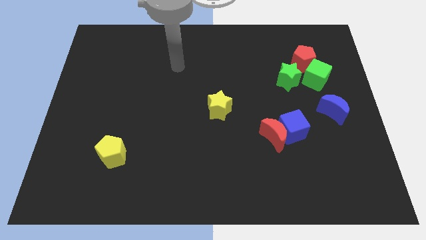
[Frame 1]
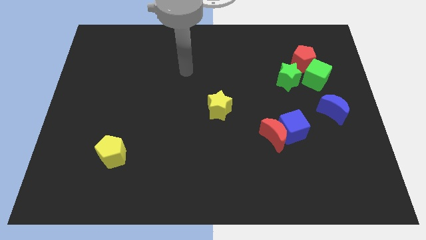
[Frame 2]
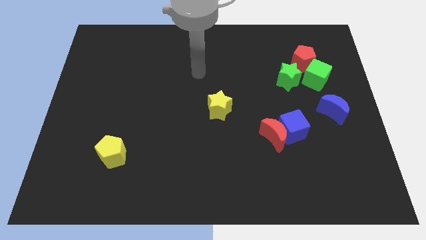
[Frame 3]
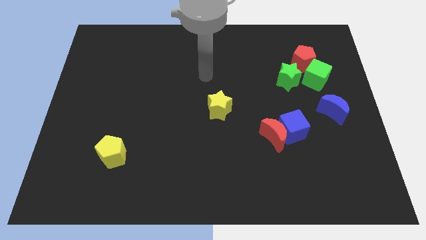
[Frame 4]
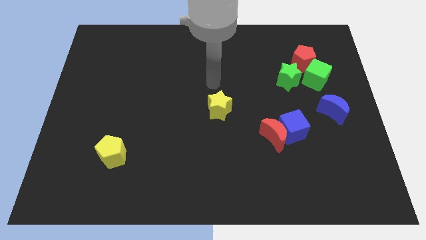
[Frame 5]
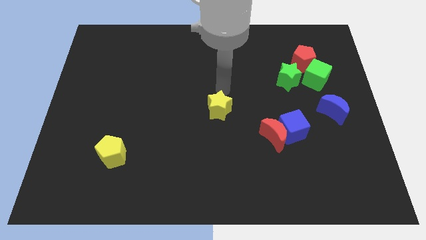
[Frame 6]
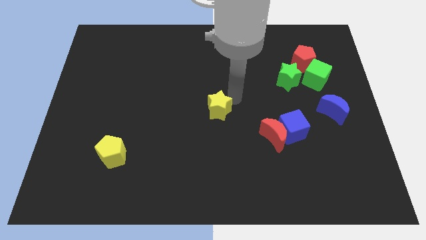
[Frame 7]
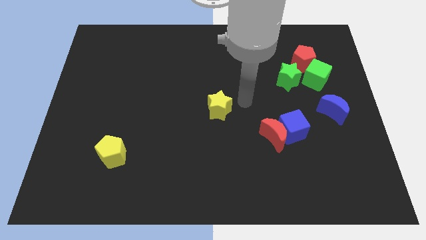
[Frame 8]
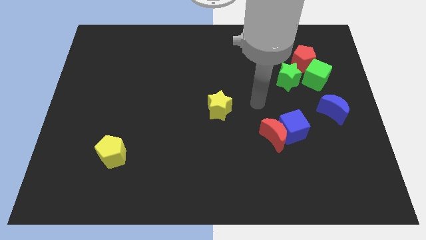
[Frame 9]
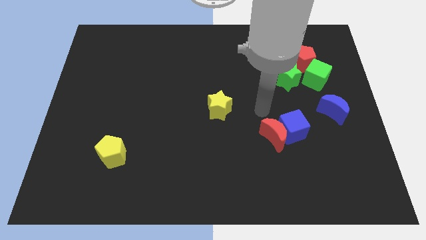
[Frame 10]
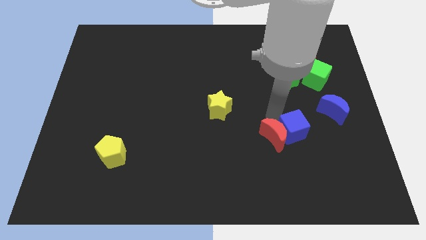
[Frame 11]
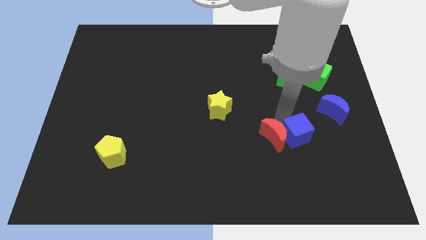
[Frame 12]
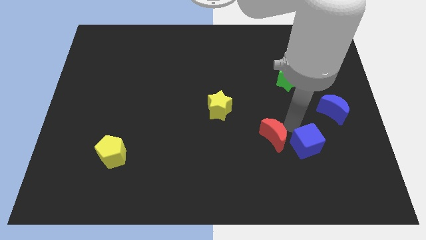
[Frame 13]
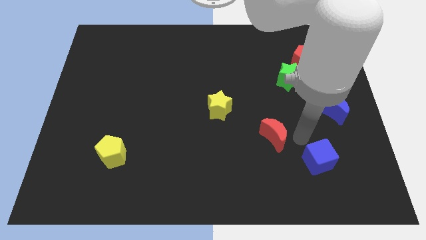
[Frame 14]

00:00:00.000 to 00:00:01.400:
move the red moon away from the blue cube

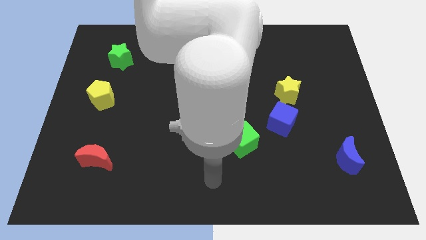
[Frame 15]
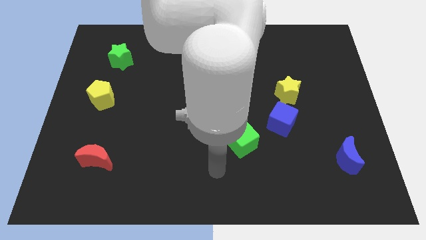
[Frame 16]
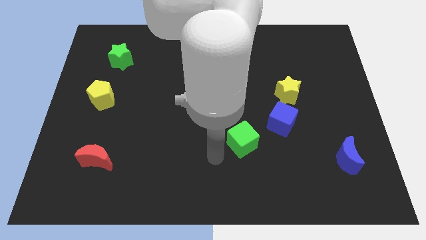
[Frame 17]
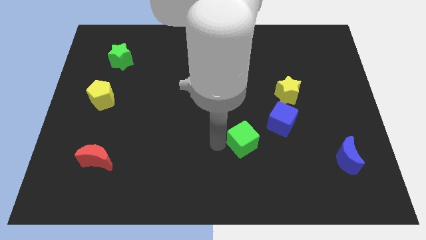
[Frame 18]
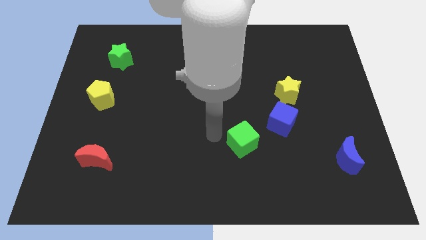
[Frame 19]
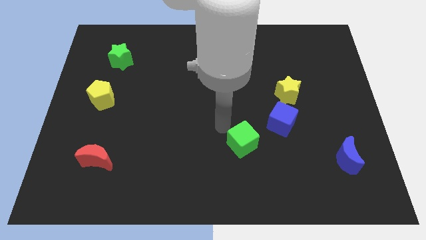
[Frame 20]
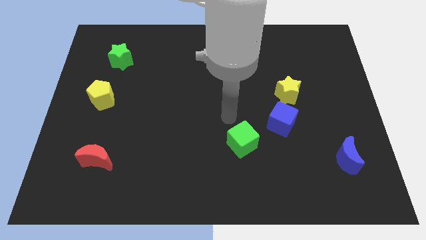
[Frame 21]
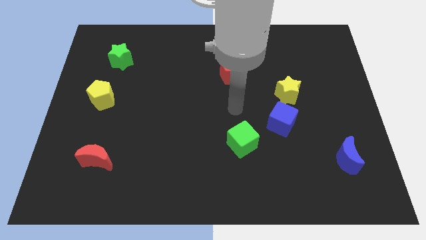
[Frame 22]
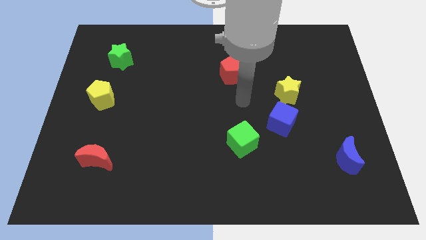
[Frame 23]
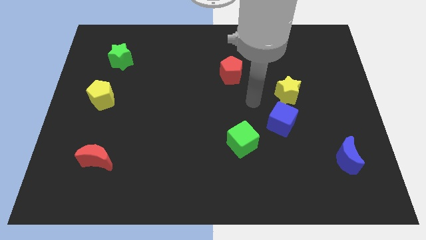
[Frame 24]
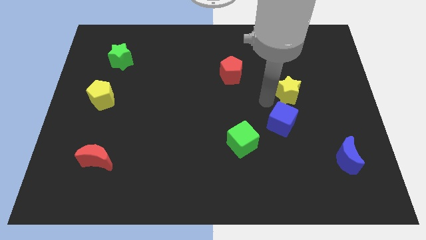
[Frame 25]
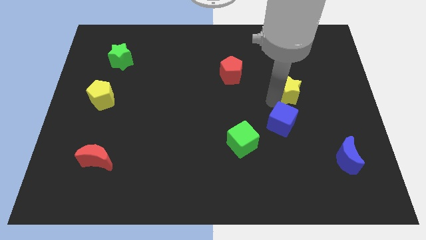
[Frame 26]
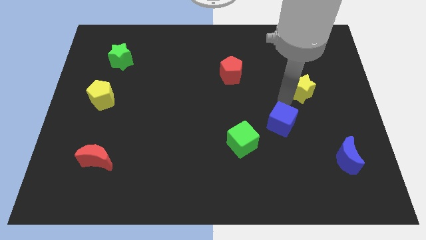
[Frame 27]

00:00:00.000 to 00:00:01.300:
separate the blue cube from the yellow star

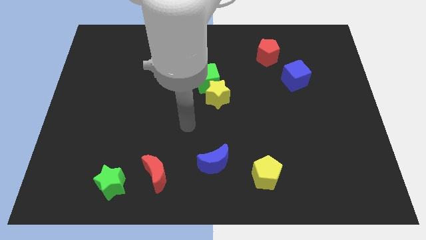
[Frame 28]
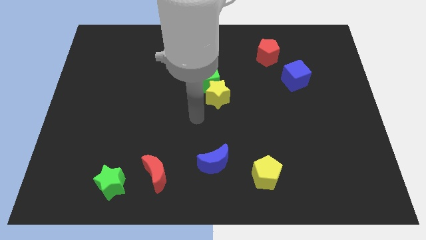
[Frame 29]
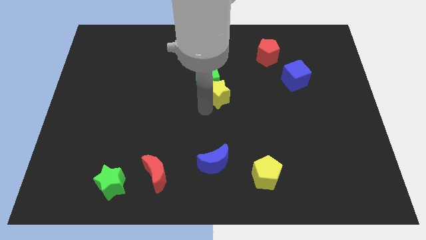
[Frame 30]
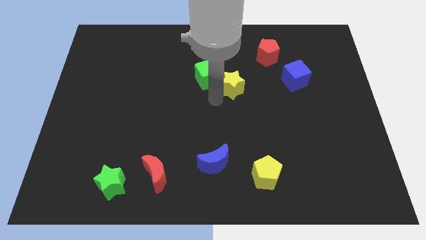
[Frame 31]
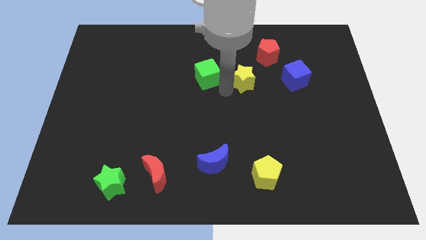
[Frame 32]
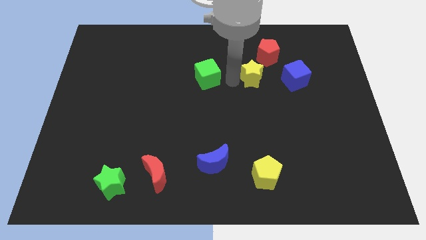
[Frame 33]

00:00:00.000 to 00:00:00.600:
move the green cube away from the yellow star

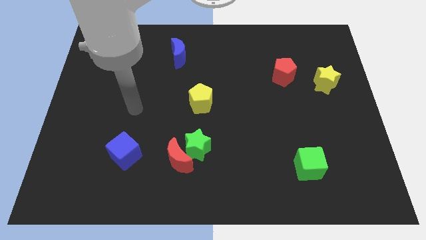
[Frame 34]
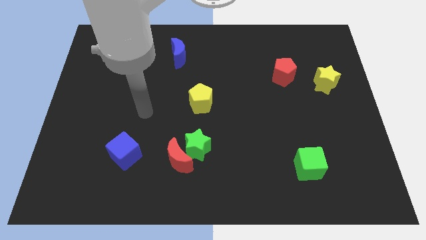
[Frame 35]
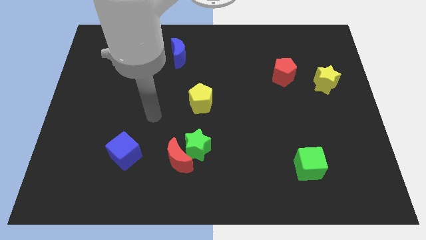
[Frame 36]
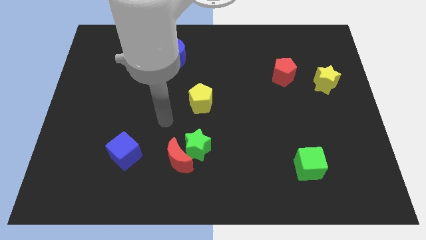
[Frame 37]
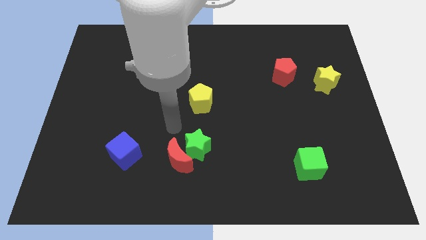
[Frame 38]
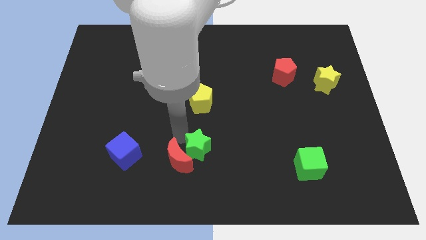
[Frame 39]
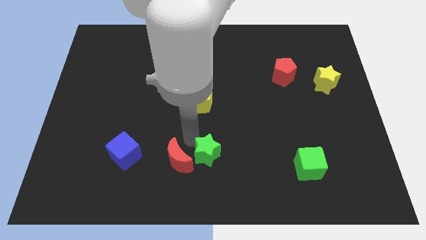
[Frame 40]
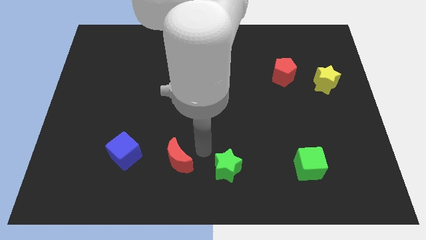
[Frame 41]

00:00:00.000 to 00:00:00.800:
move the red moon away from the green star

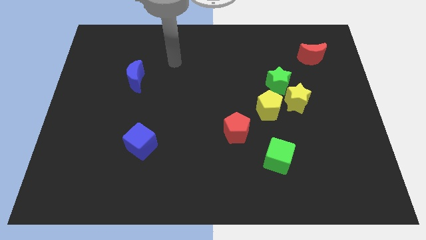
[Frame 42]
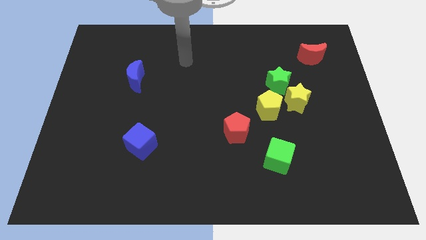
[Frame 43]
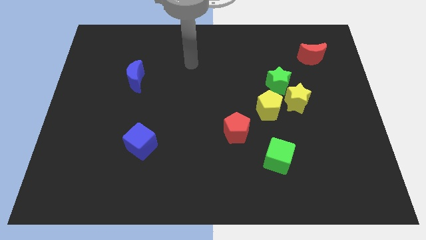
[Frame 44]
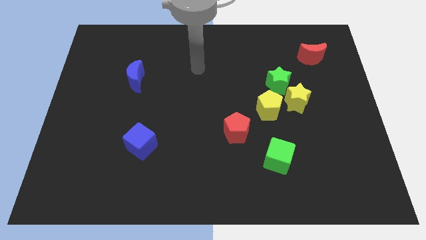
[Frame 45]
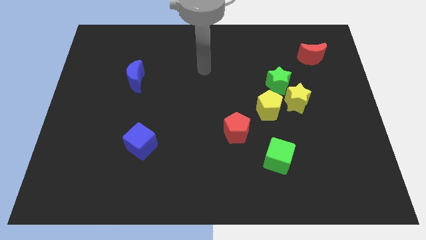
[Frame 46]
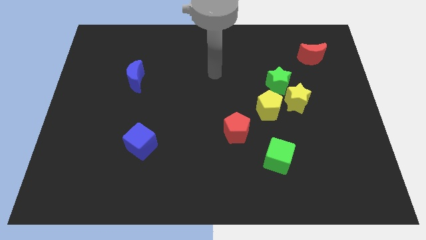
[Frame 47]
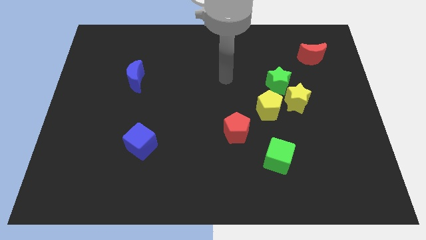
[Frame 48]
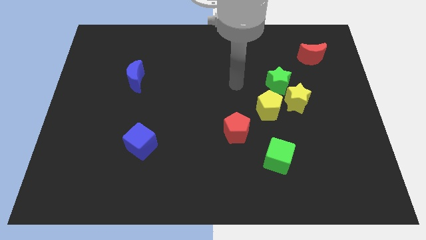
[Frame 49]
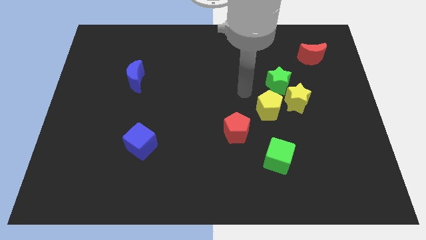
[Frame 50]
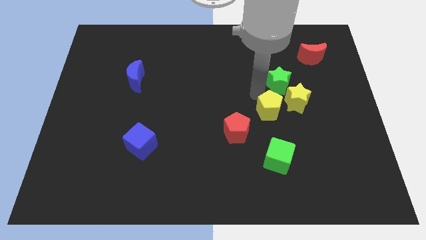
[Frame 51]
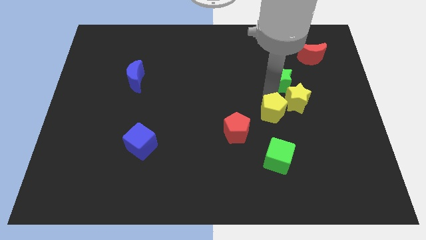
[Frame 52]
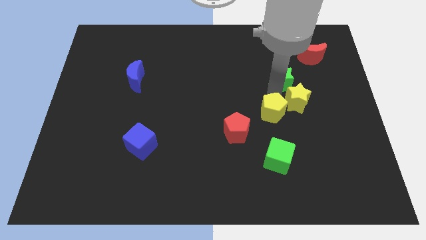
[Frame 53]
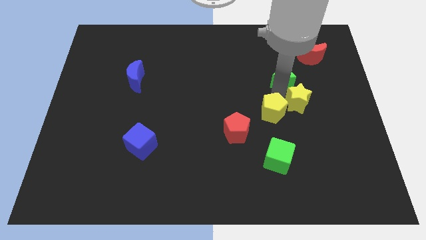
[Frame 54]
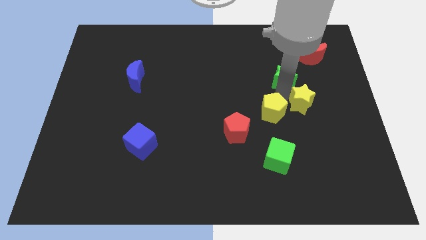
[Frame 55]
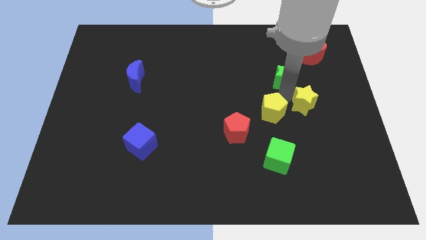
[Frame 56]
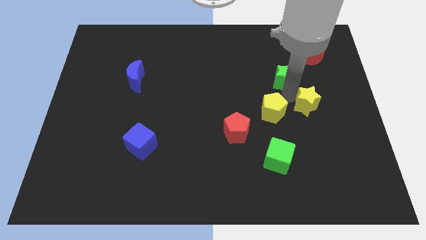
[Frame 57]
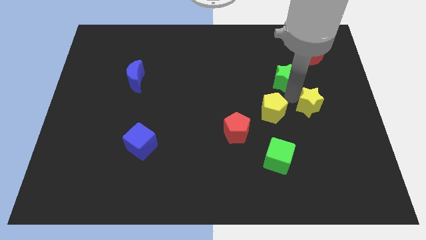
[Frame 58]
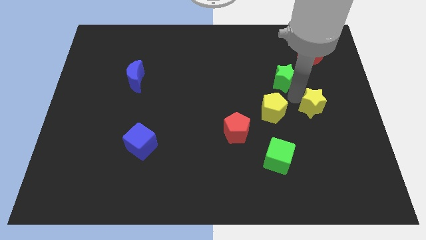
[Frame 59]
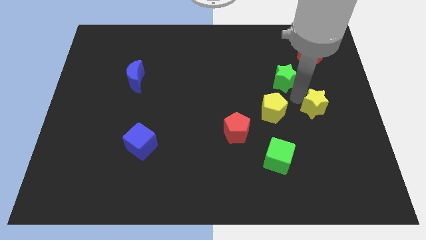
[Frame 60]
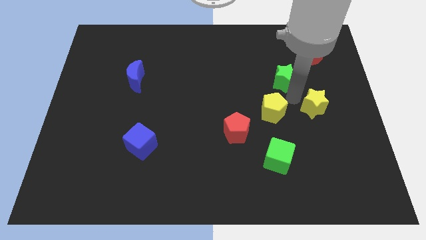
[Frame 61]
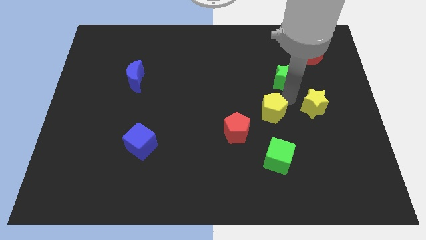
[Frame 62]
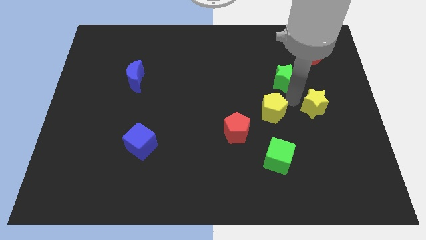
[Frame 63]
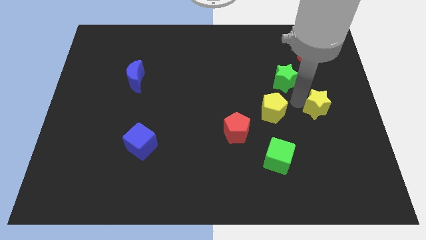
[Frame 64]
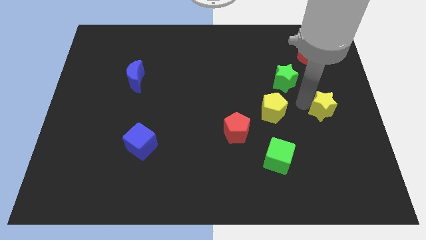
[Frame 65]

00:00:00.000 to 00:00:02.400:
move the yellow star away from the green star and yellow pentagon

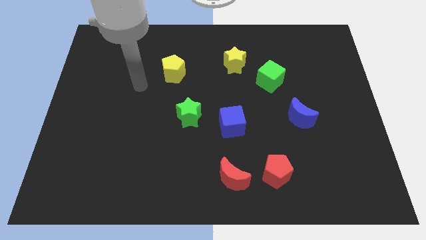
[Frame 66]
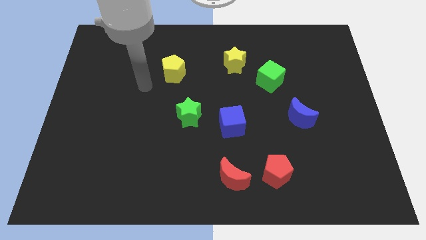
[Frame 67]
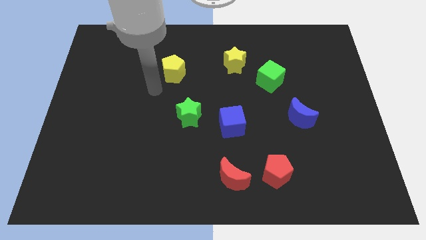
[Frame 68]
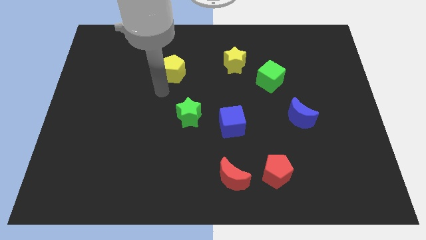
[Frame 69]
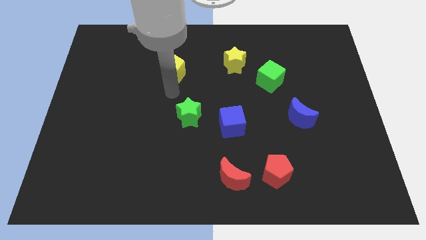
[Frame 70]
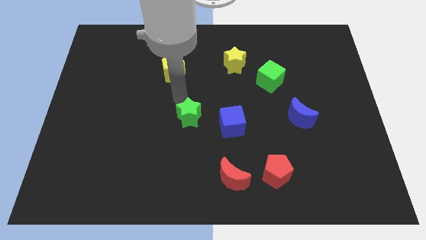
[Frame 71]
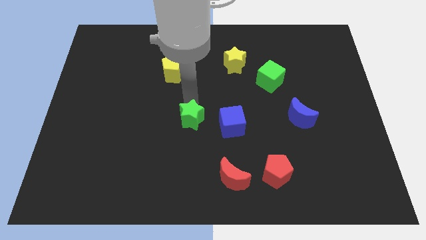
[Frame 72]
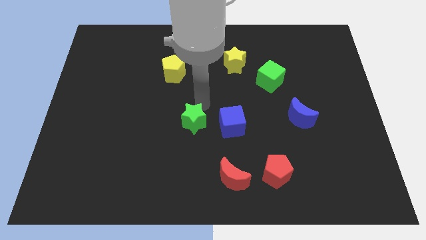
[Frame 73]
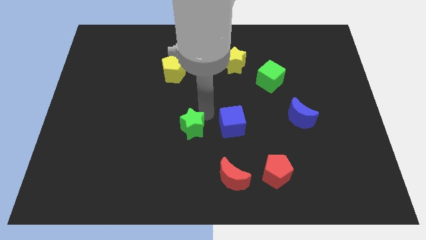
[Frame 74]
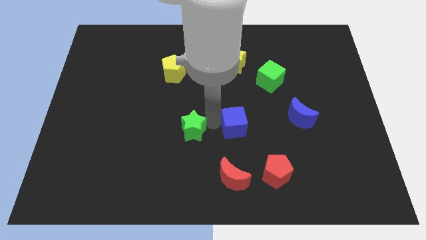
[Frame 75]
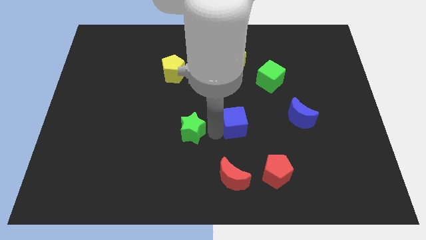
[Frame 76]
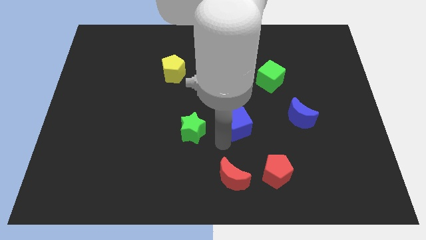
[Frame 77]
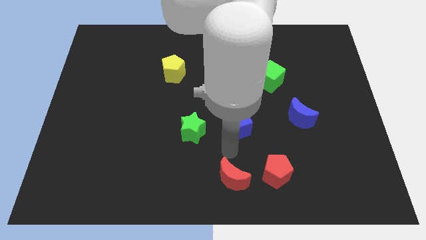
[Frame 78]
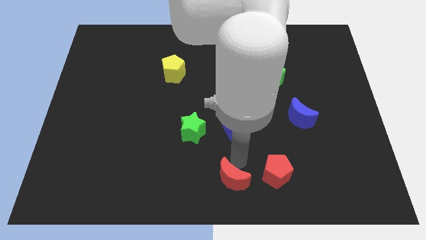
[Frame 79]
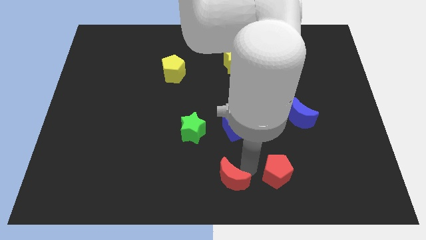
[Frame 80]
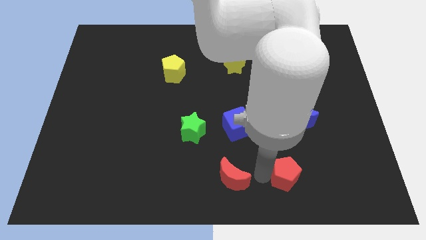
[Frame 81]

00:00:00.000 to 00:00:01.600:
pull the red moon apart from the red pentagon

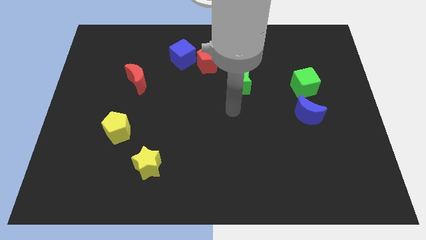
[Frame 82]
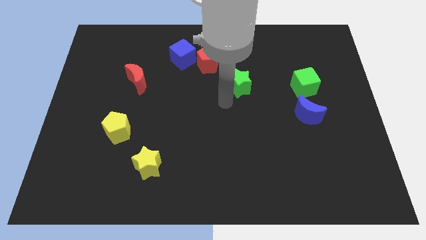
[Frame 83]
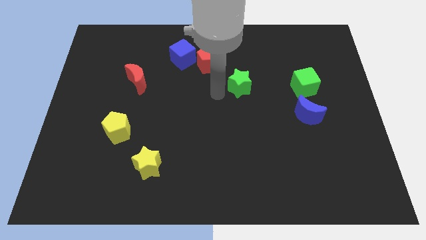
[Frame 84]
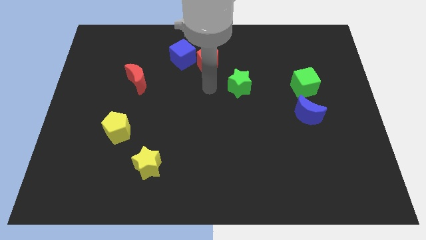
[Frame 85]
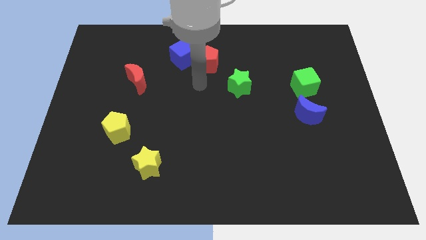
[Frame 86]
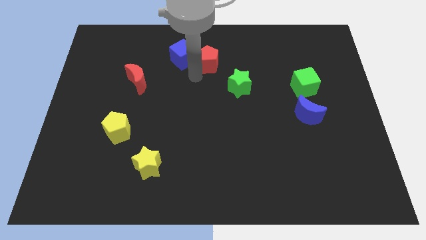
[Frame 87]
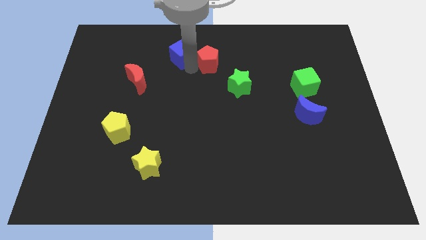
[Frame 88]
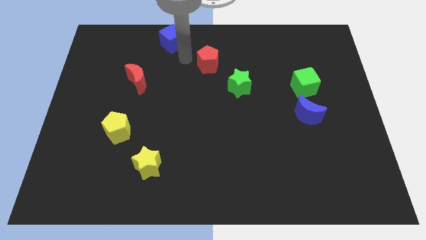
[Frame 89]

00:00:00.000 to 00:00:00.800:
separate the red pentagon from the blue cube

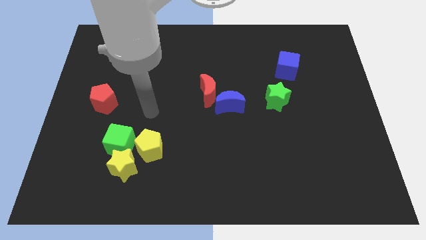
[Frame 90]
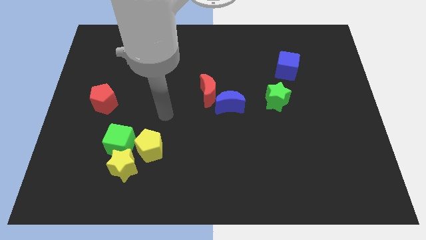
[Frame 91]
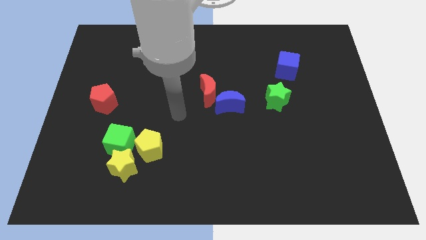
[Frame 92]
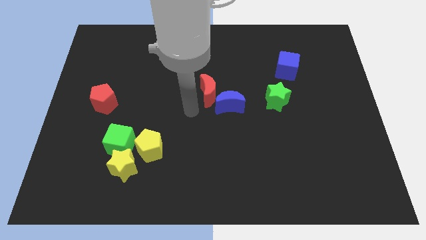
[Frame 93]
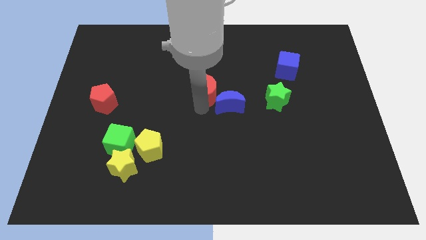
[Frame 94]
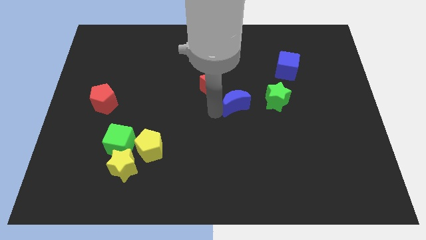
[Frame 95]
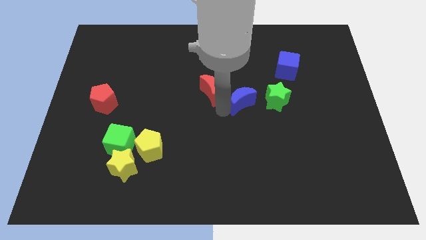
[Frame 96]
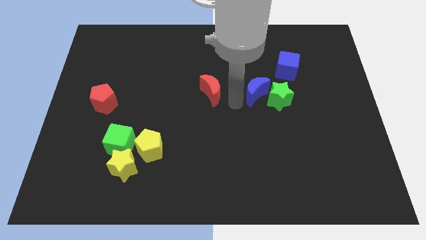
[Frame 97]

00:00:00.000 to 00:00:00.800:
pull the red moon apart from the blue moon
